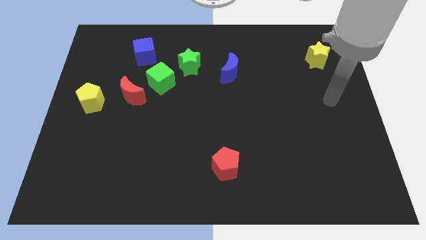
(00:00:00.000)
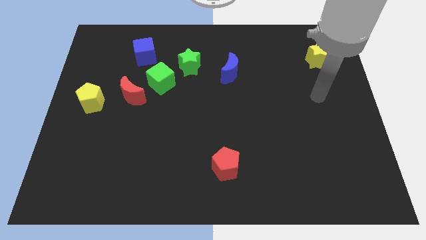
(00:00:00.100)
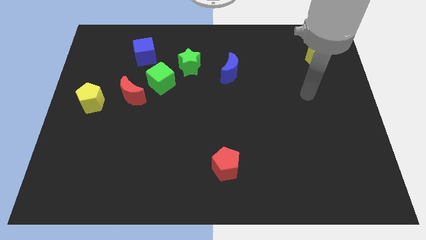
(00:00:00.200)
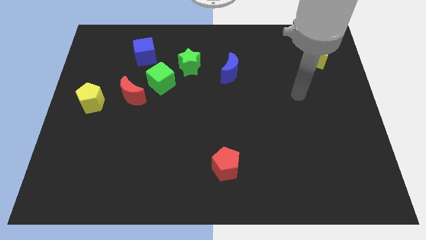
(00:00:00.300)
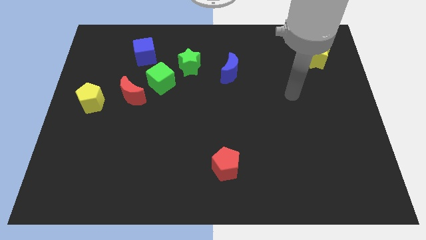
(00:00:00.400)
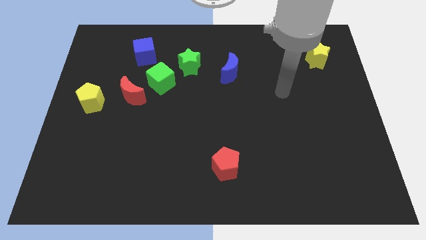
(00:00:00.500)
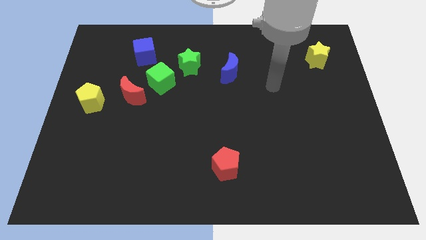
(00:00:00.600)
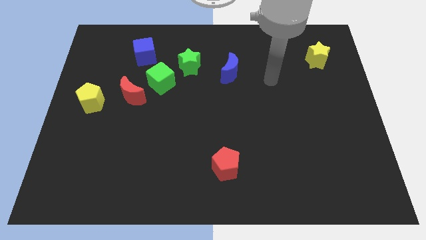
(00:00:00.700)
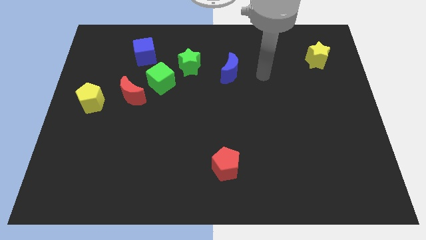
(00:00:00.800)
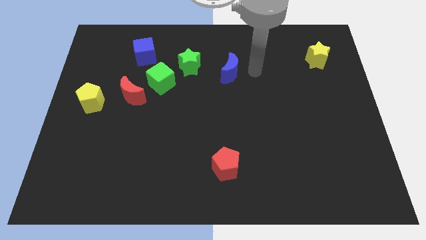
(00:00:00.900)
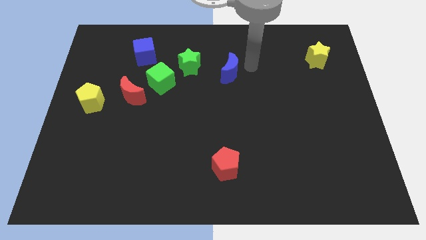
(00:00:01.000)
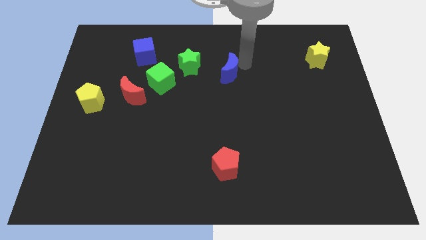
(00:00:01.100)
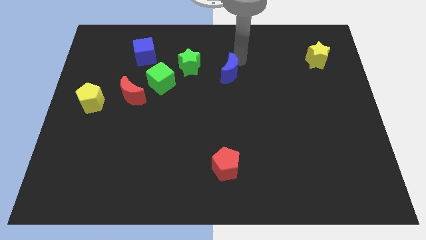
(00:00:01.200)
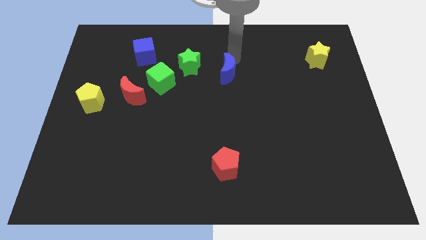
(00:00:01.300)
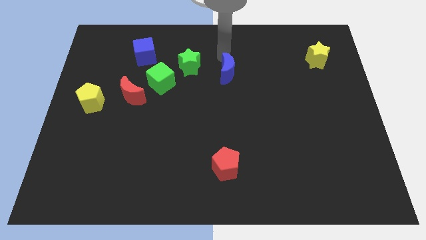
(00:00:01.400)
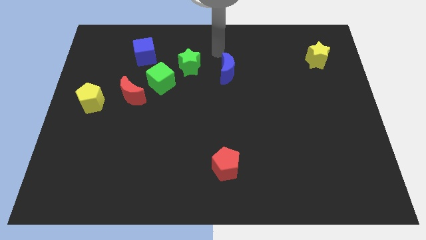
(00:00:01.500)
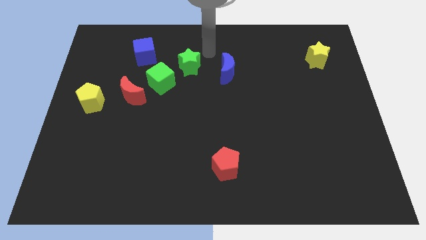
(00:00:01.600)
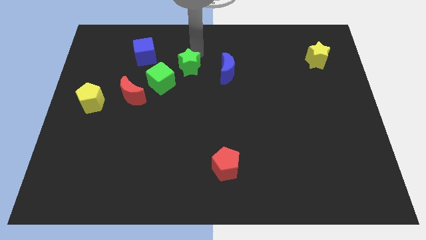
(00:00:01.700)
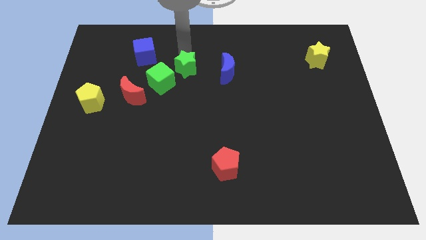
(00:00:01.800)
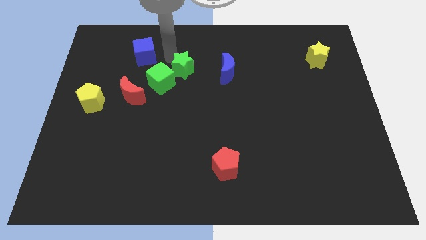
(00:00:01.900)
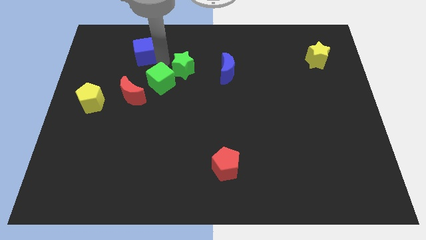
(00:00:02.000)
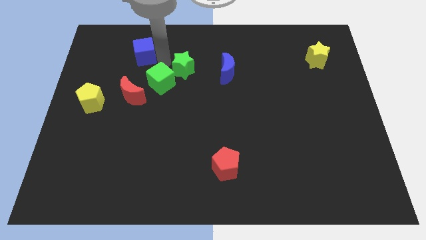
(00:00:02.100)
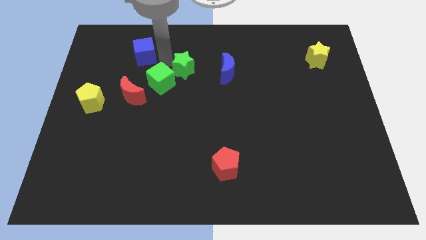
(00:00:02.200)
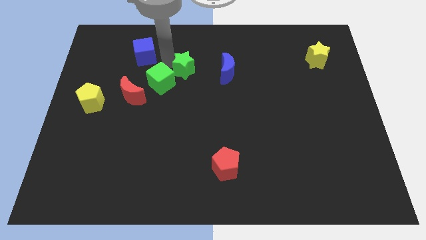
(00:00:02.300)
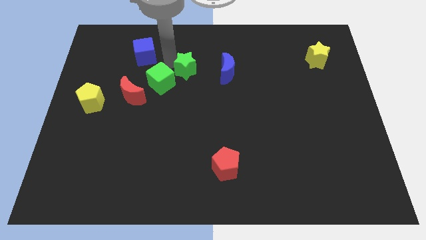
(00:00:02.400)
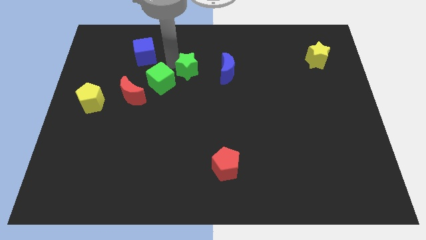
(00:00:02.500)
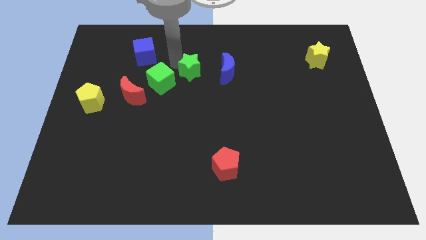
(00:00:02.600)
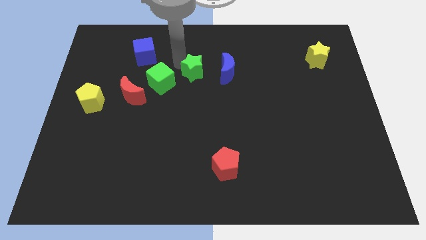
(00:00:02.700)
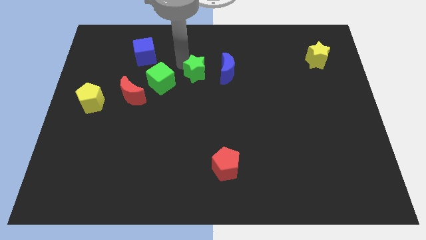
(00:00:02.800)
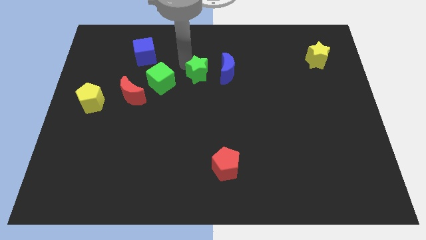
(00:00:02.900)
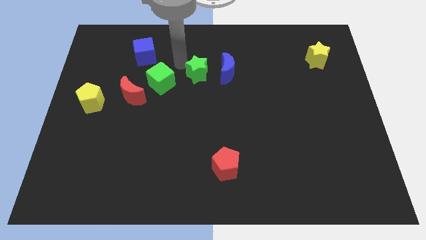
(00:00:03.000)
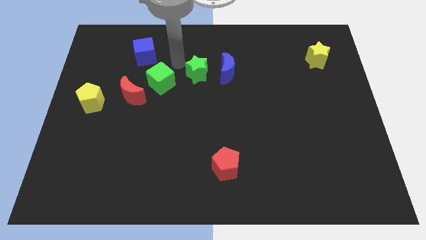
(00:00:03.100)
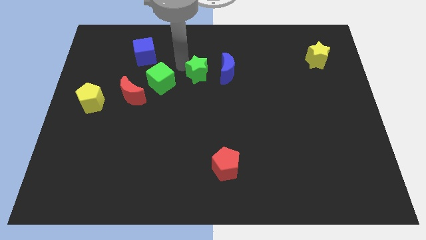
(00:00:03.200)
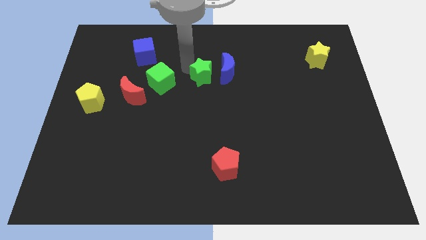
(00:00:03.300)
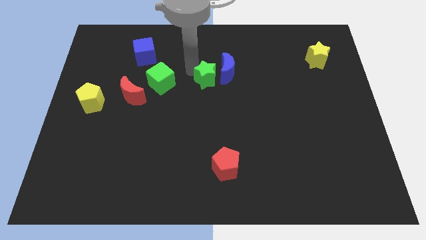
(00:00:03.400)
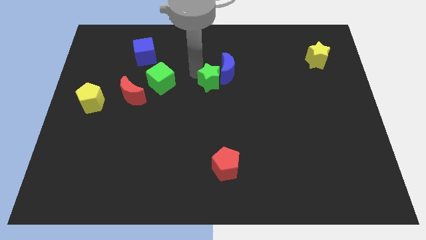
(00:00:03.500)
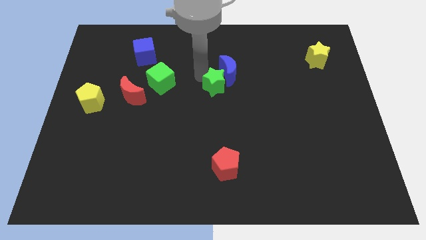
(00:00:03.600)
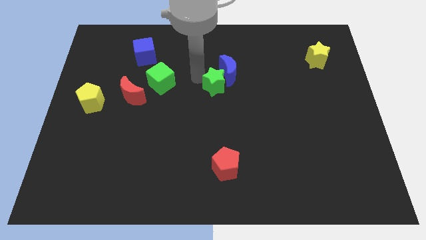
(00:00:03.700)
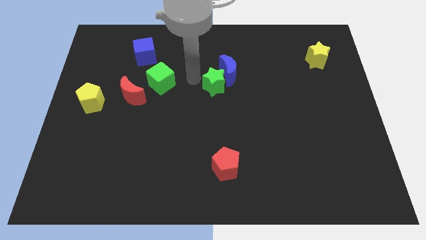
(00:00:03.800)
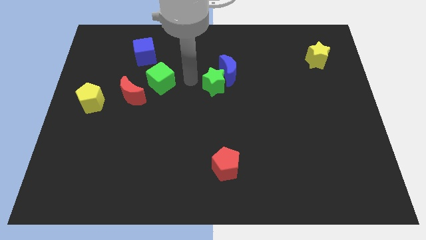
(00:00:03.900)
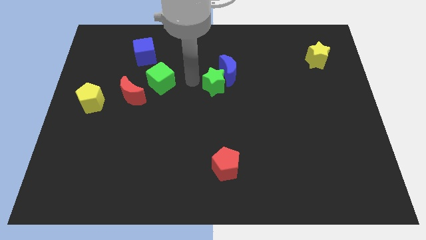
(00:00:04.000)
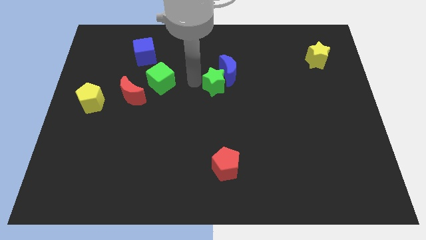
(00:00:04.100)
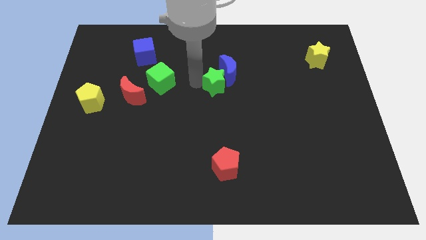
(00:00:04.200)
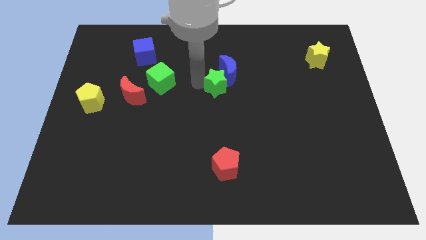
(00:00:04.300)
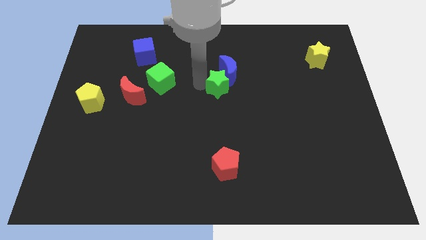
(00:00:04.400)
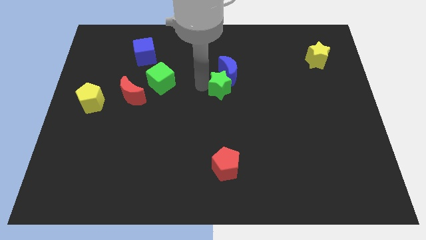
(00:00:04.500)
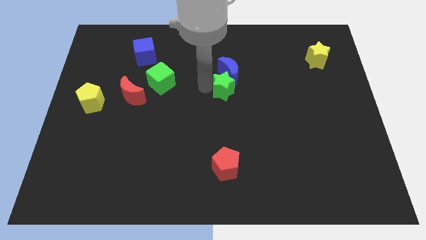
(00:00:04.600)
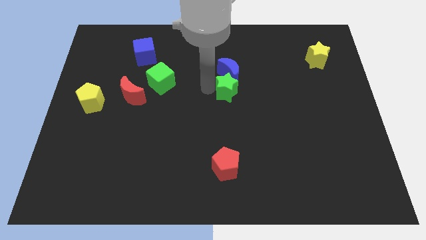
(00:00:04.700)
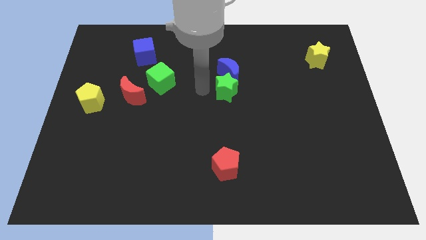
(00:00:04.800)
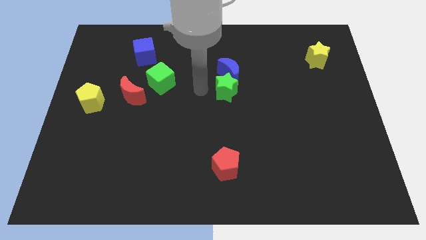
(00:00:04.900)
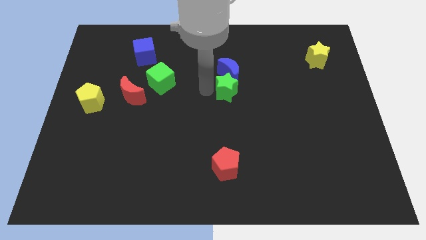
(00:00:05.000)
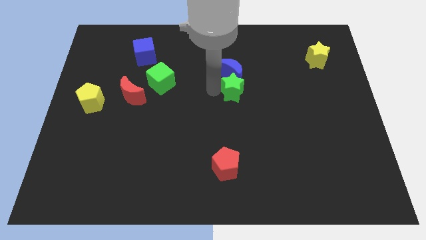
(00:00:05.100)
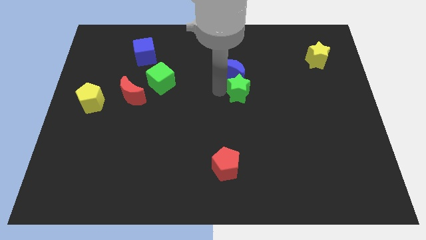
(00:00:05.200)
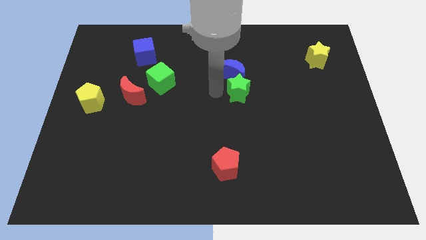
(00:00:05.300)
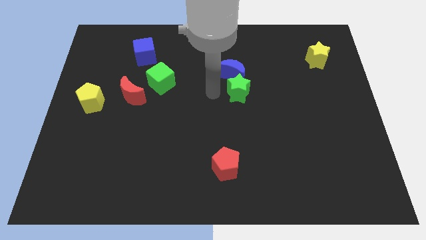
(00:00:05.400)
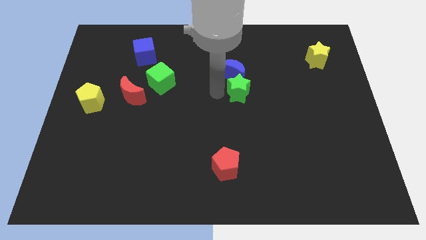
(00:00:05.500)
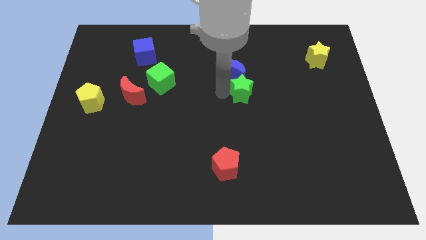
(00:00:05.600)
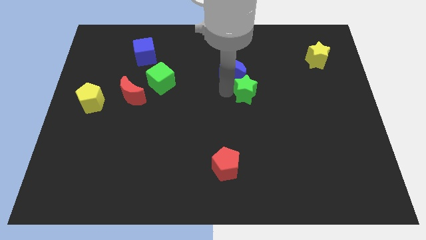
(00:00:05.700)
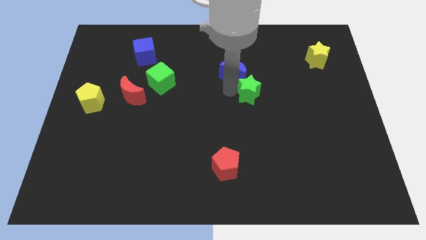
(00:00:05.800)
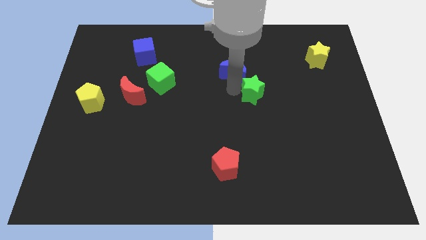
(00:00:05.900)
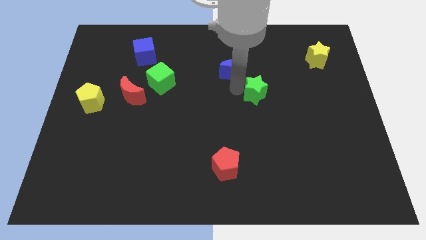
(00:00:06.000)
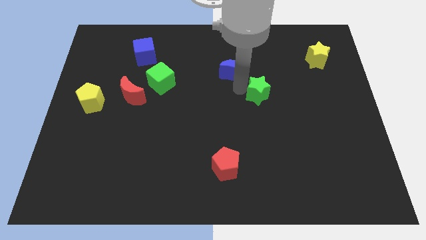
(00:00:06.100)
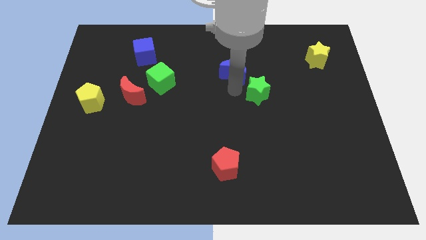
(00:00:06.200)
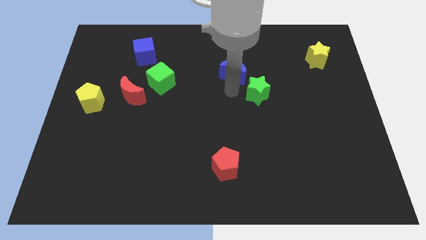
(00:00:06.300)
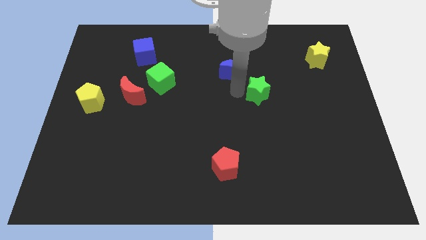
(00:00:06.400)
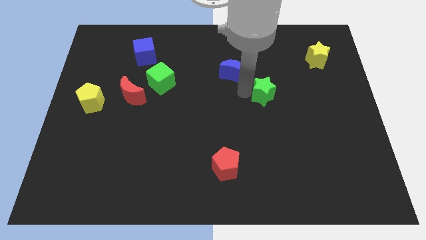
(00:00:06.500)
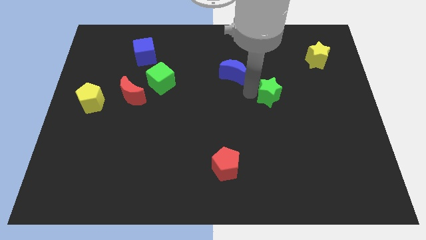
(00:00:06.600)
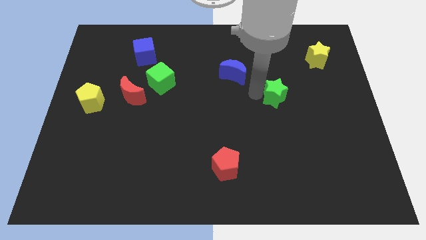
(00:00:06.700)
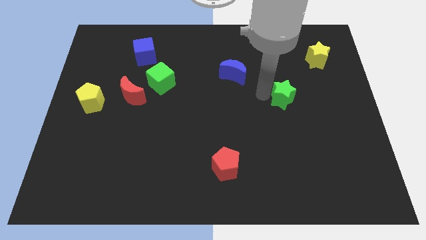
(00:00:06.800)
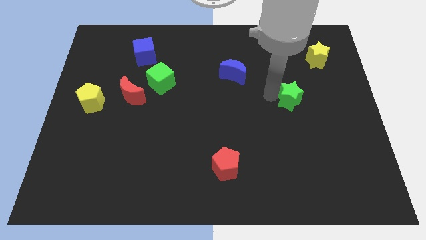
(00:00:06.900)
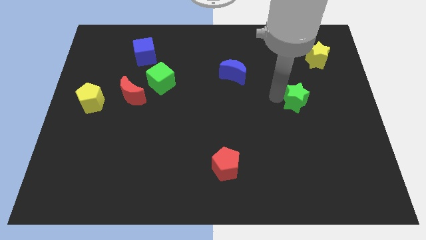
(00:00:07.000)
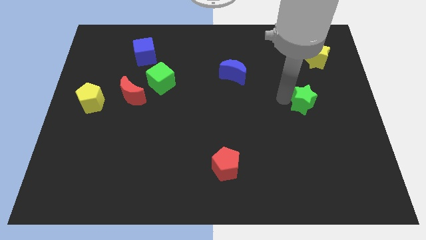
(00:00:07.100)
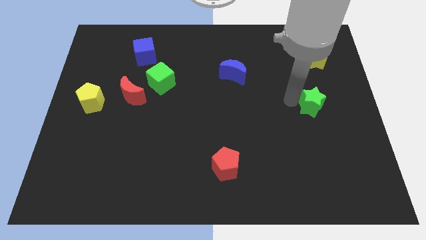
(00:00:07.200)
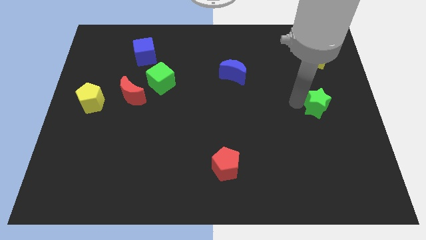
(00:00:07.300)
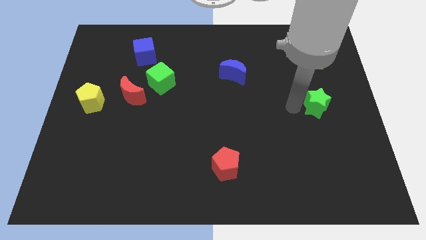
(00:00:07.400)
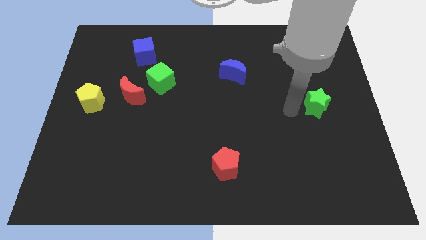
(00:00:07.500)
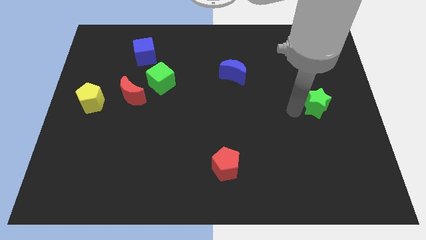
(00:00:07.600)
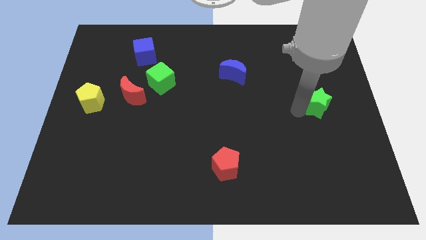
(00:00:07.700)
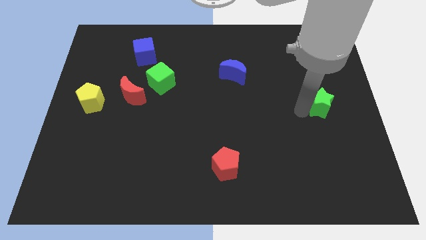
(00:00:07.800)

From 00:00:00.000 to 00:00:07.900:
push the green star to the center right
